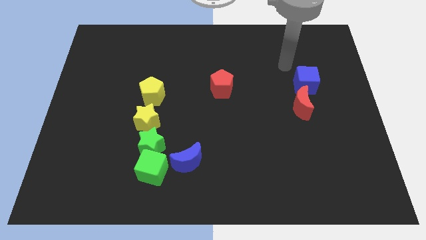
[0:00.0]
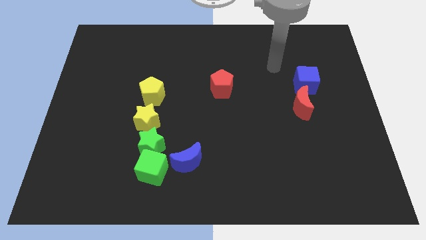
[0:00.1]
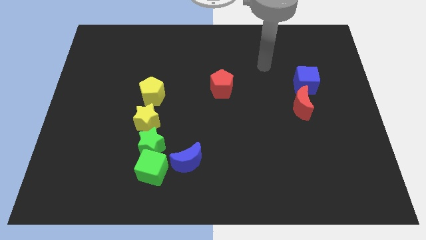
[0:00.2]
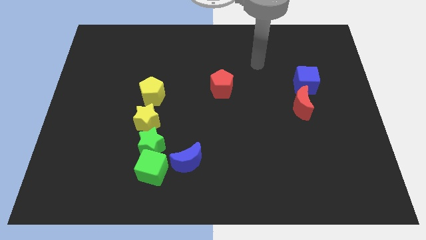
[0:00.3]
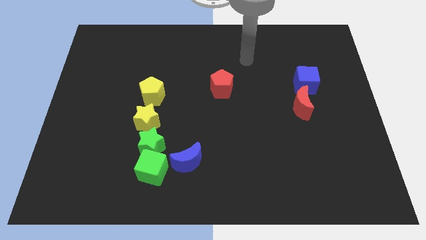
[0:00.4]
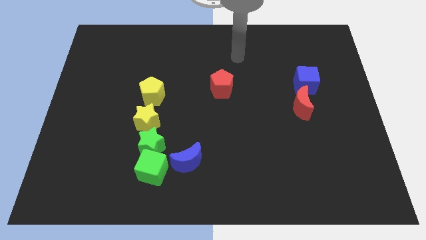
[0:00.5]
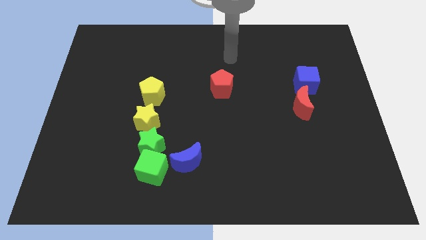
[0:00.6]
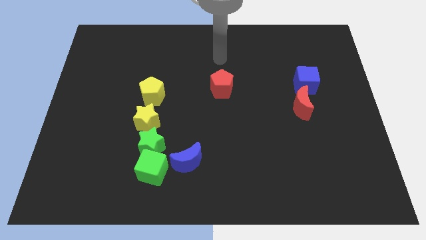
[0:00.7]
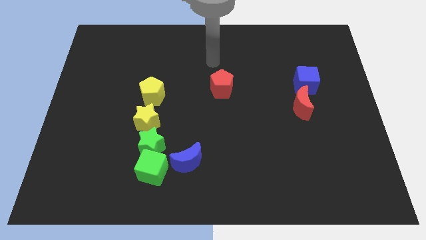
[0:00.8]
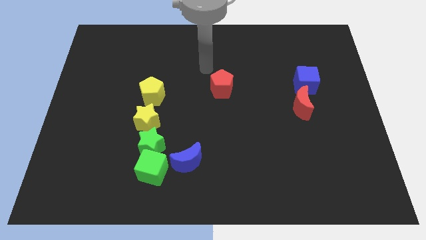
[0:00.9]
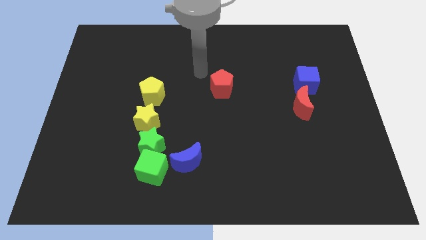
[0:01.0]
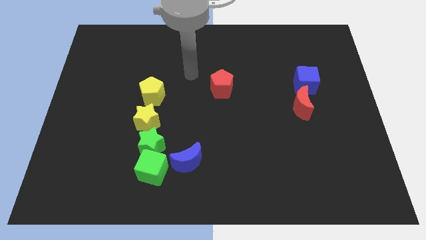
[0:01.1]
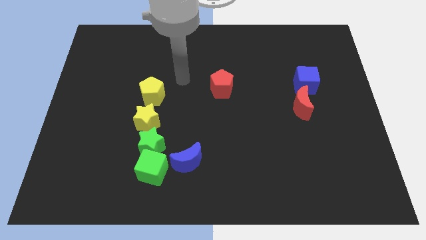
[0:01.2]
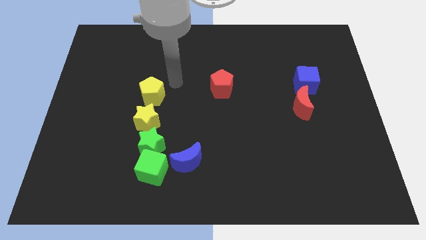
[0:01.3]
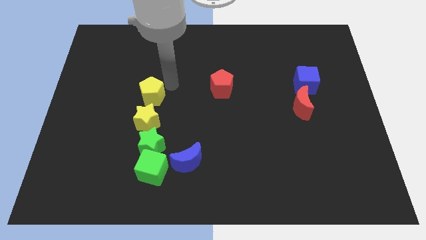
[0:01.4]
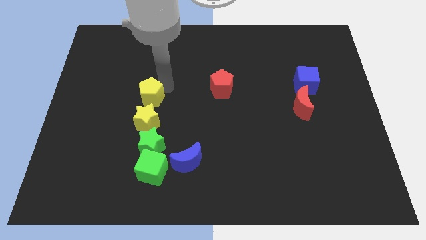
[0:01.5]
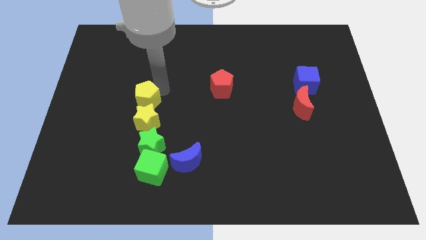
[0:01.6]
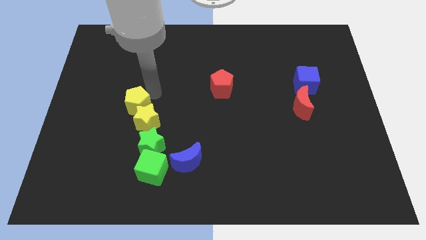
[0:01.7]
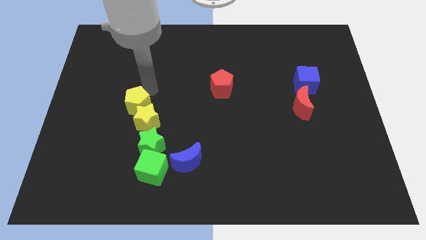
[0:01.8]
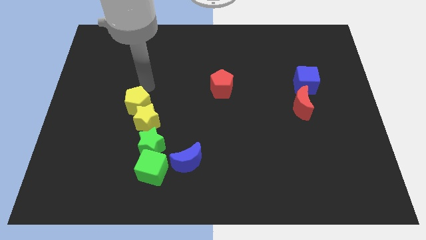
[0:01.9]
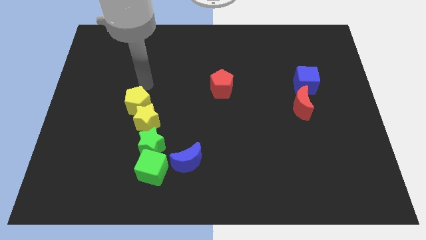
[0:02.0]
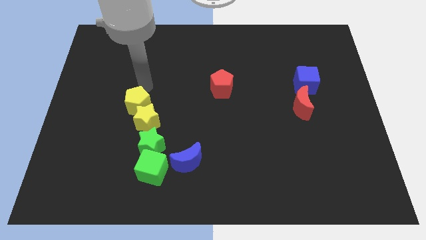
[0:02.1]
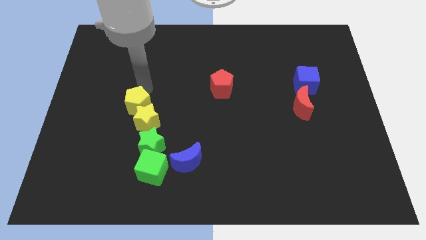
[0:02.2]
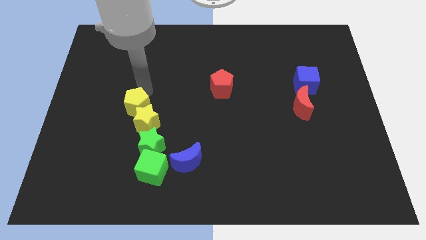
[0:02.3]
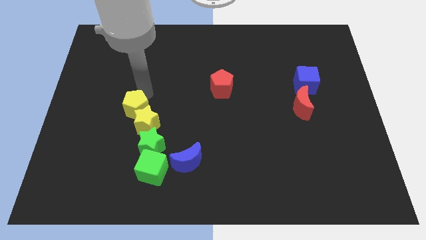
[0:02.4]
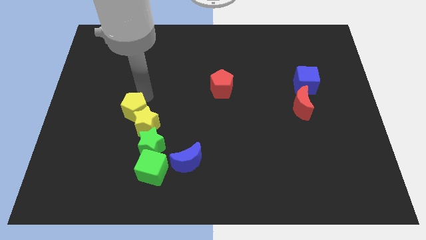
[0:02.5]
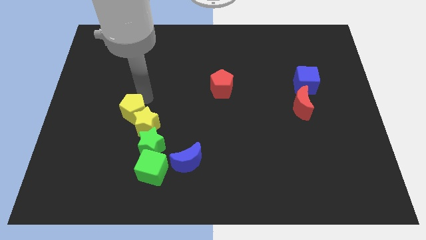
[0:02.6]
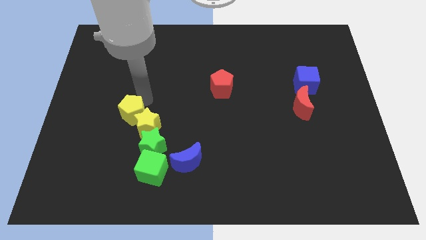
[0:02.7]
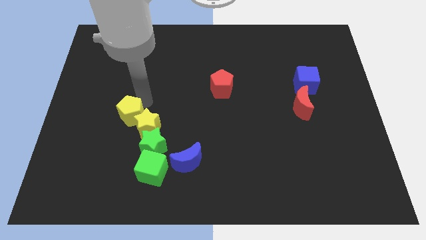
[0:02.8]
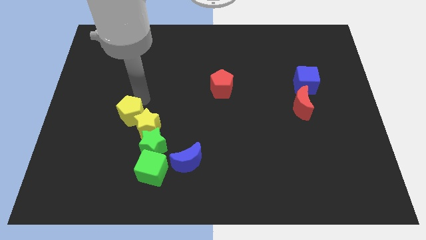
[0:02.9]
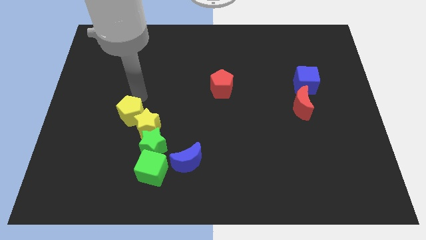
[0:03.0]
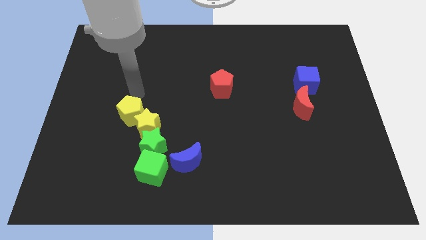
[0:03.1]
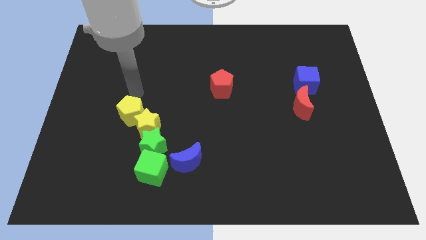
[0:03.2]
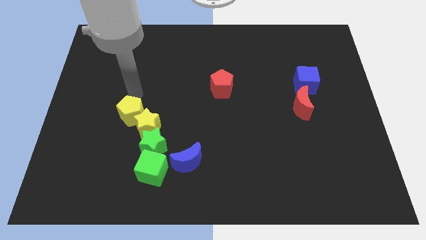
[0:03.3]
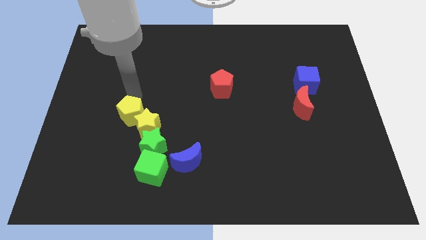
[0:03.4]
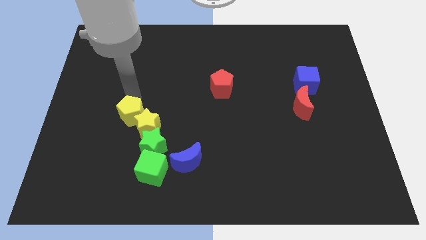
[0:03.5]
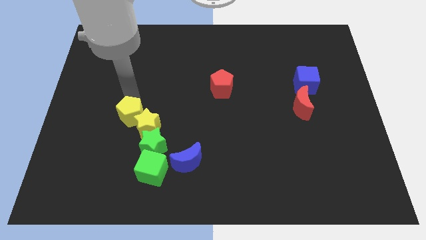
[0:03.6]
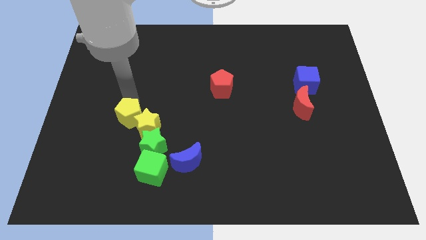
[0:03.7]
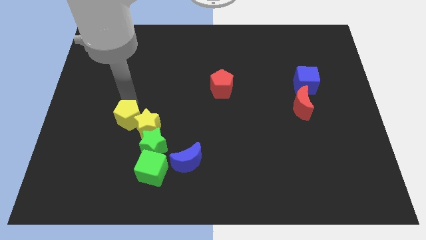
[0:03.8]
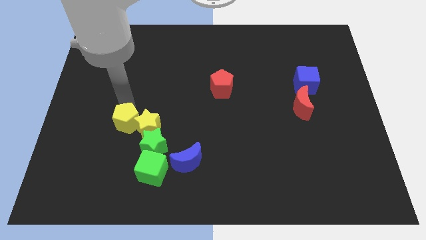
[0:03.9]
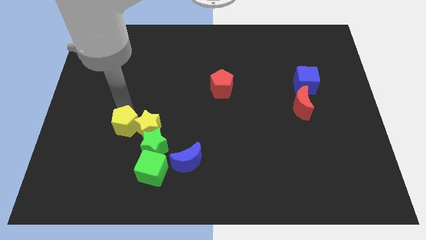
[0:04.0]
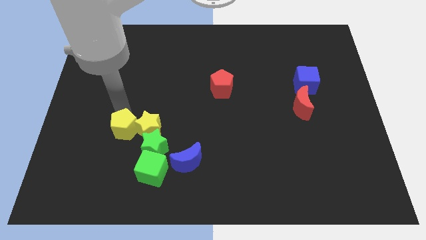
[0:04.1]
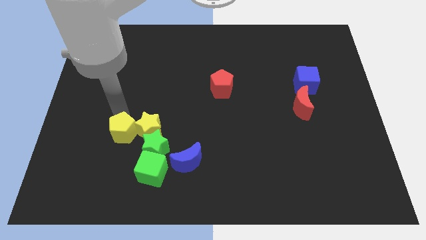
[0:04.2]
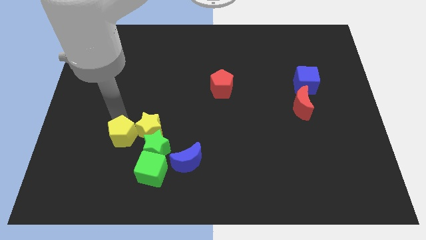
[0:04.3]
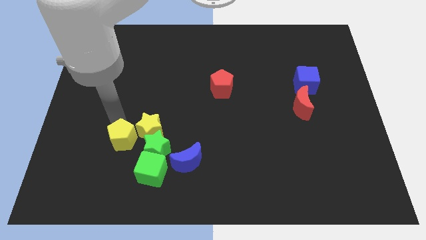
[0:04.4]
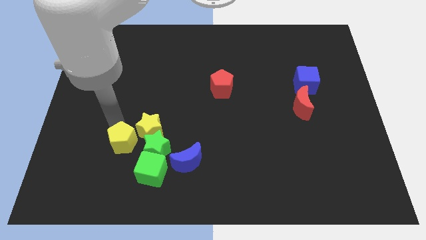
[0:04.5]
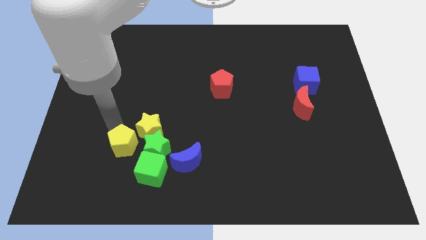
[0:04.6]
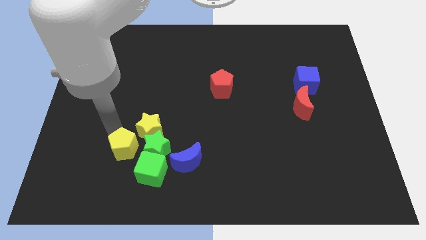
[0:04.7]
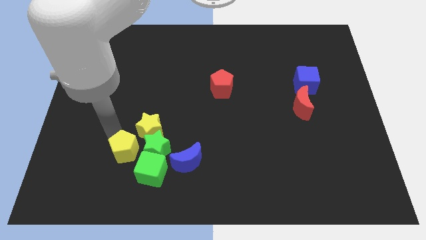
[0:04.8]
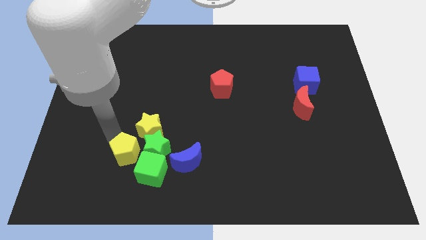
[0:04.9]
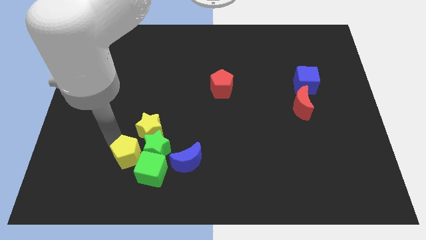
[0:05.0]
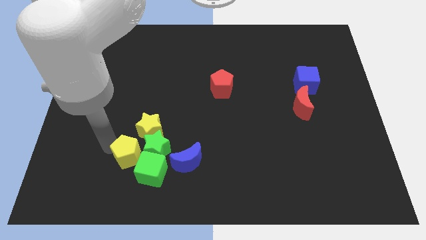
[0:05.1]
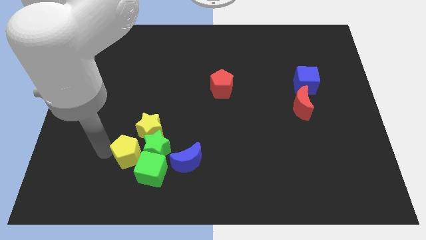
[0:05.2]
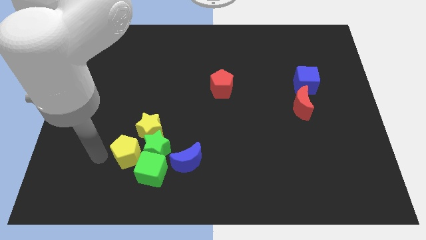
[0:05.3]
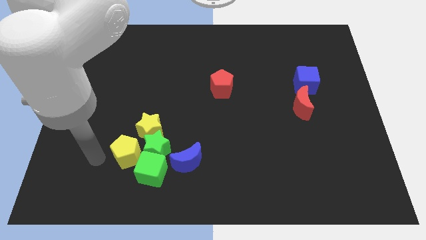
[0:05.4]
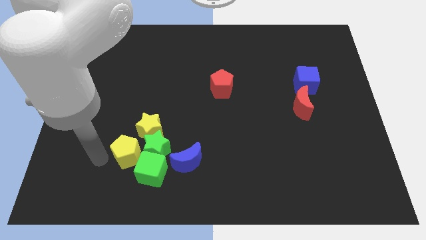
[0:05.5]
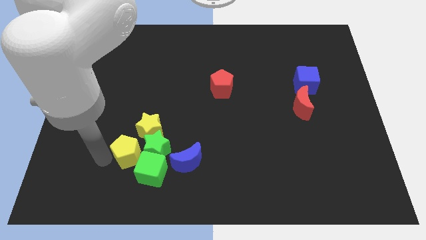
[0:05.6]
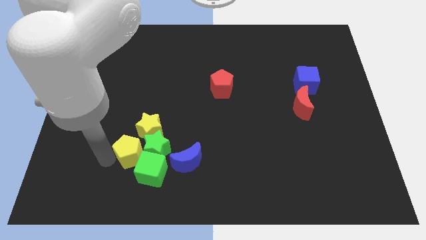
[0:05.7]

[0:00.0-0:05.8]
move the yellow pentagon close to the green star

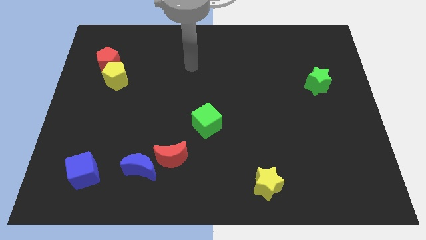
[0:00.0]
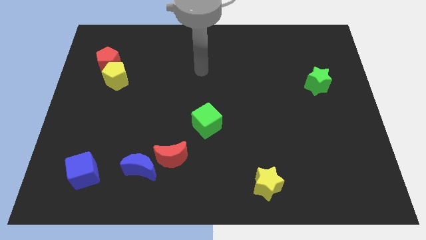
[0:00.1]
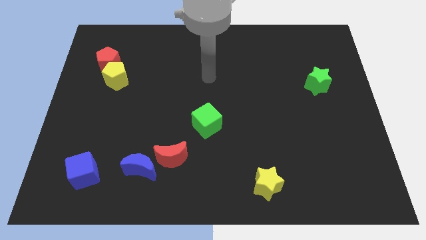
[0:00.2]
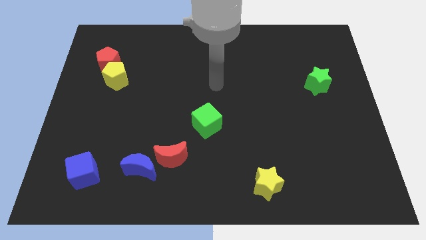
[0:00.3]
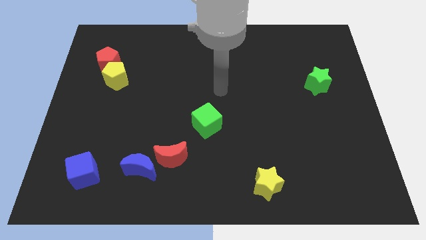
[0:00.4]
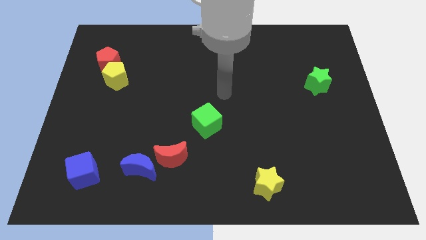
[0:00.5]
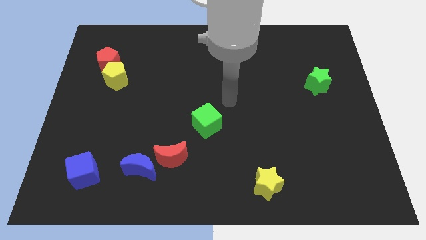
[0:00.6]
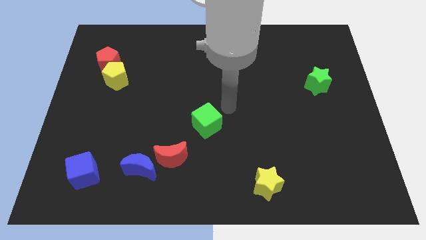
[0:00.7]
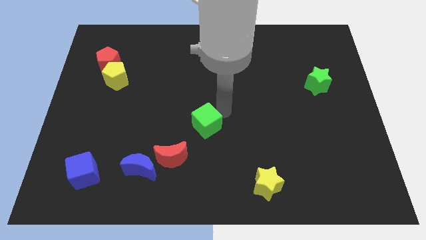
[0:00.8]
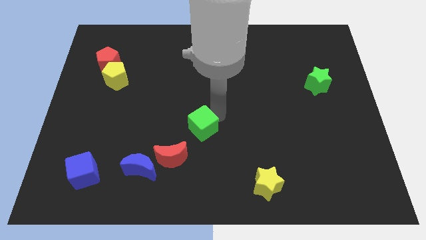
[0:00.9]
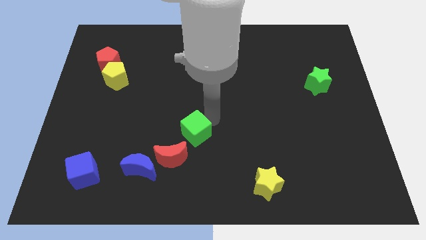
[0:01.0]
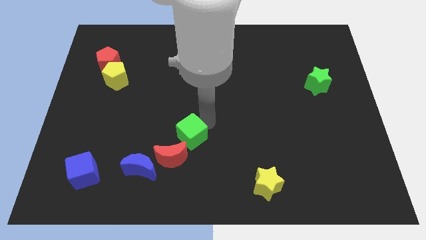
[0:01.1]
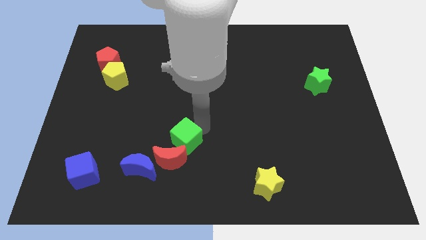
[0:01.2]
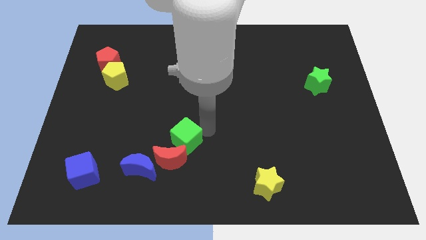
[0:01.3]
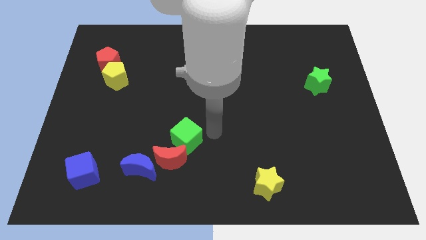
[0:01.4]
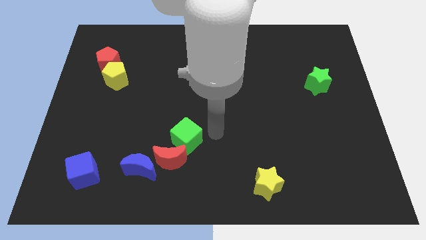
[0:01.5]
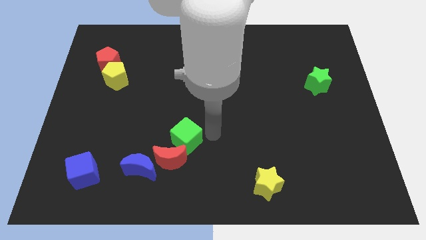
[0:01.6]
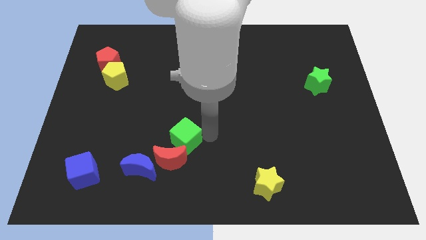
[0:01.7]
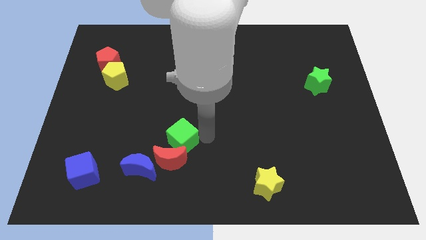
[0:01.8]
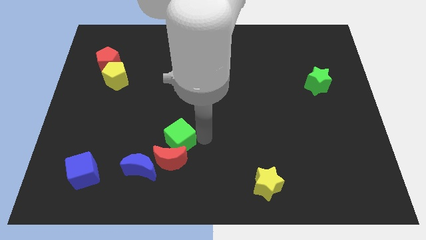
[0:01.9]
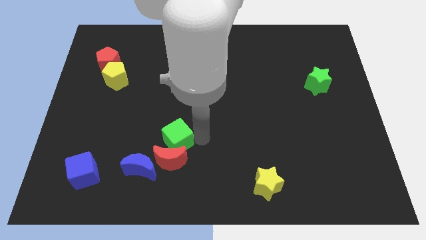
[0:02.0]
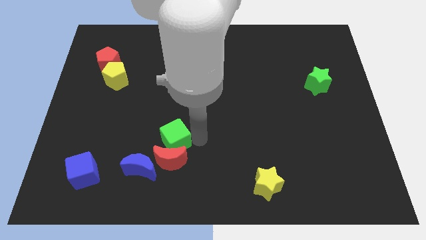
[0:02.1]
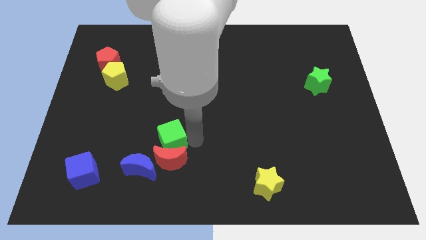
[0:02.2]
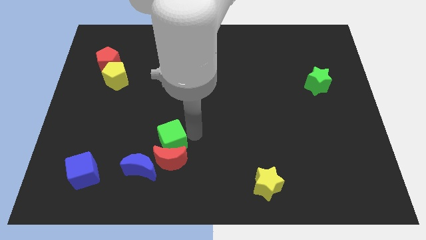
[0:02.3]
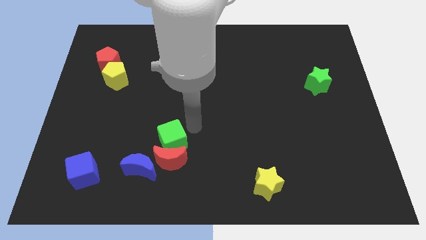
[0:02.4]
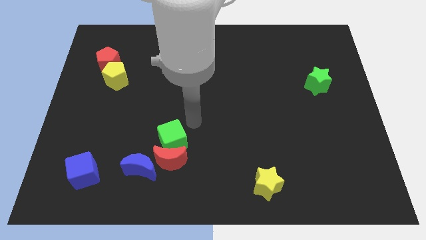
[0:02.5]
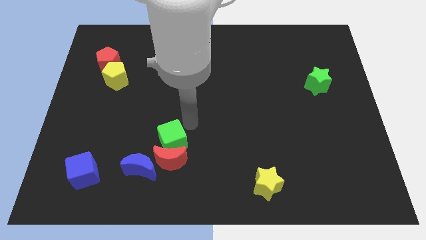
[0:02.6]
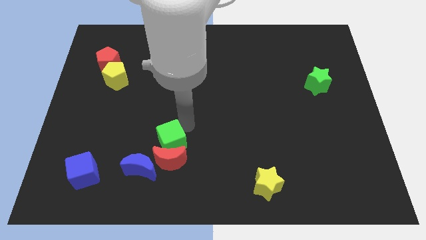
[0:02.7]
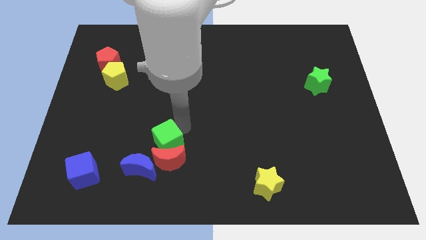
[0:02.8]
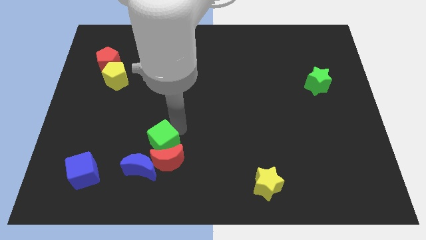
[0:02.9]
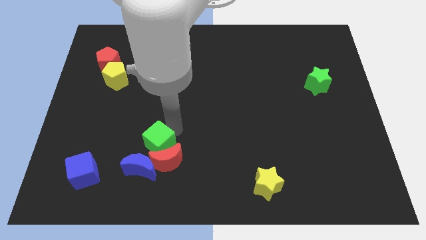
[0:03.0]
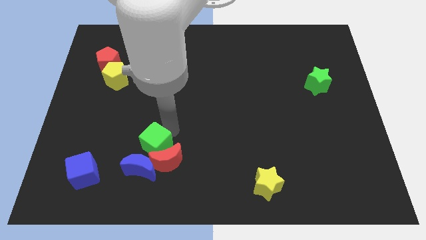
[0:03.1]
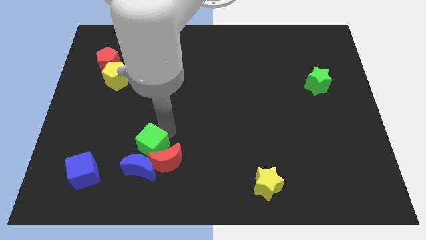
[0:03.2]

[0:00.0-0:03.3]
put the green cube next to the blue moon
